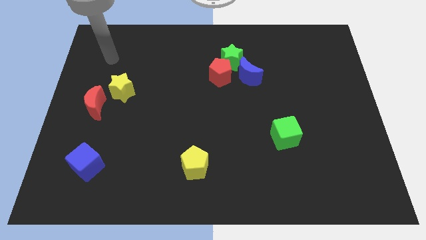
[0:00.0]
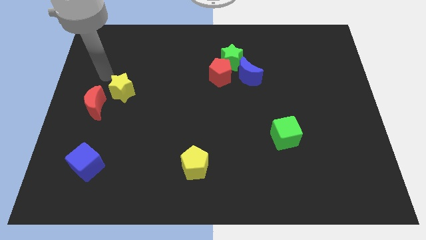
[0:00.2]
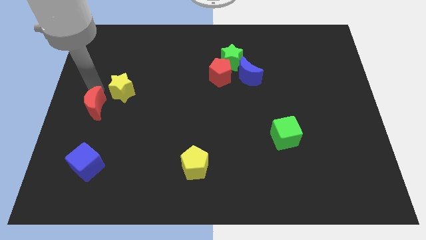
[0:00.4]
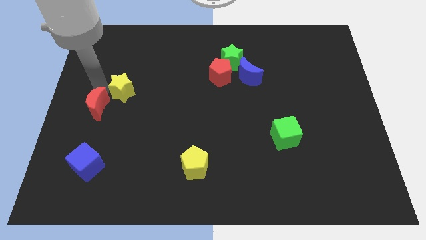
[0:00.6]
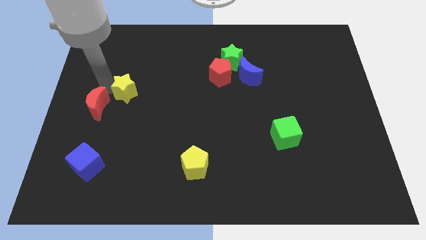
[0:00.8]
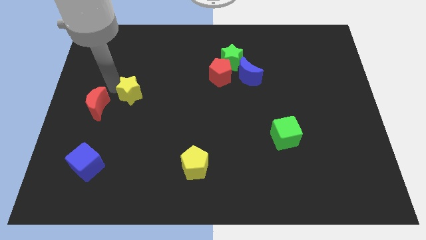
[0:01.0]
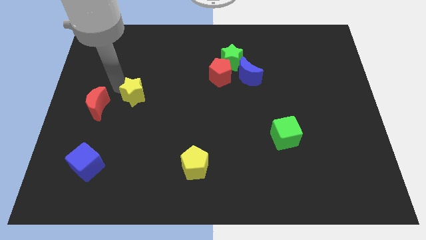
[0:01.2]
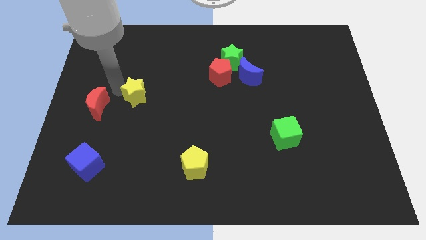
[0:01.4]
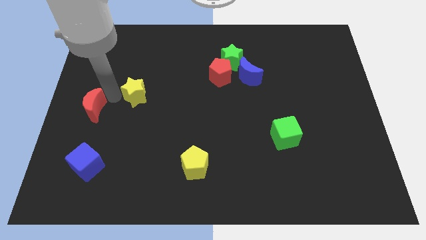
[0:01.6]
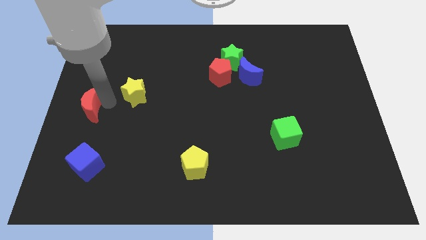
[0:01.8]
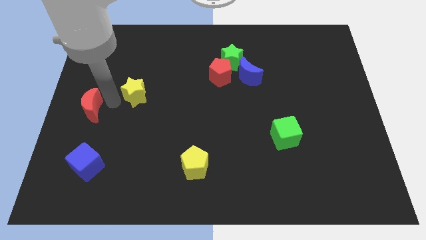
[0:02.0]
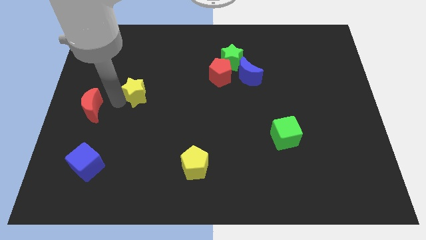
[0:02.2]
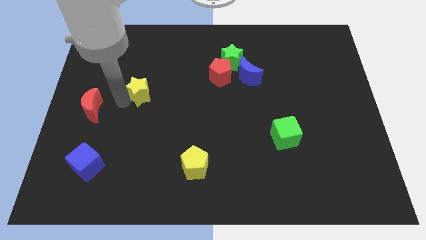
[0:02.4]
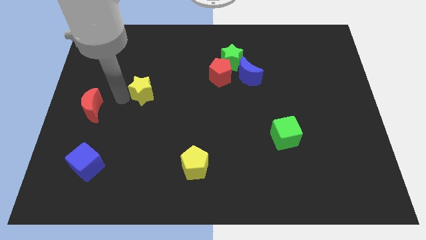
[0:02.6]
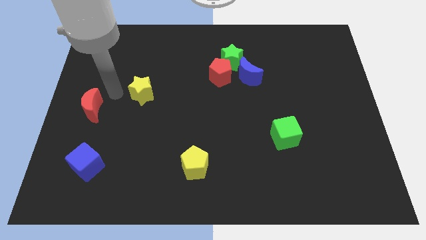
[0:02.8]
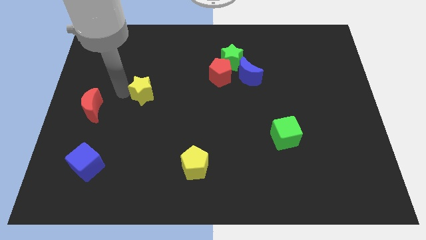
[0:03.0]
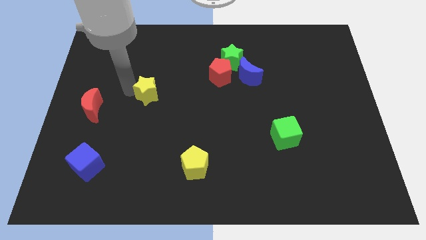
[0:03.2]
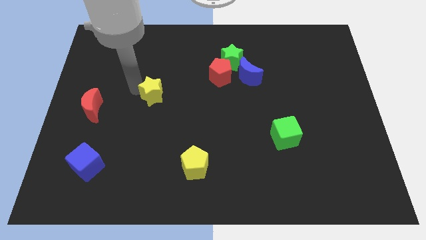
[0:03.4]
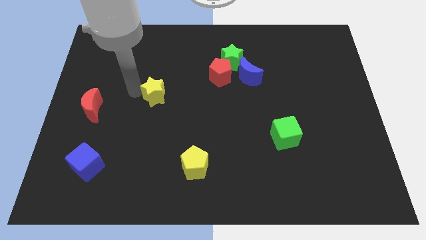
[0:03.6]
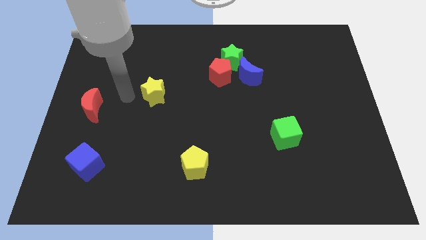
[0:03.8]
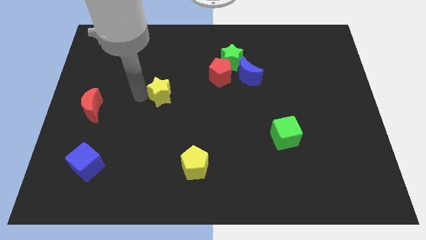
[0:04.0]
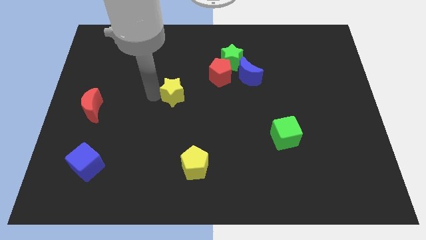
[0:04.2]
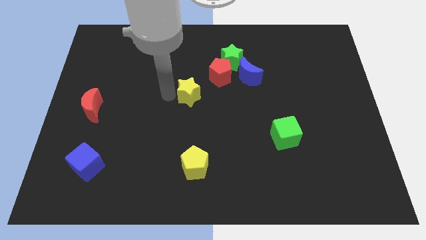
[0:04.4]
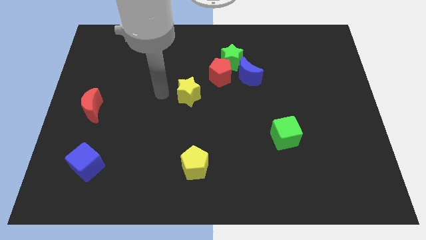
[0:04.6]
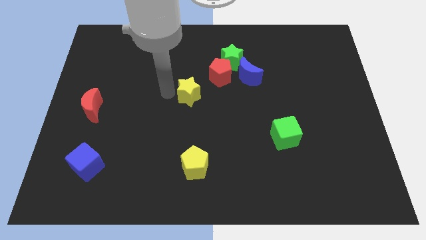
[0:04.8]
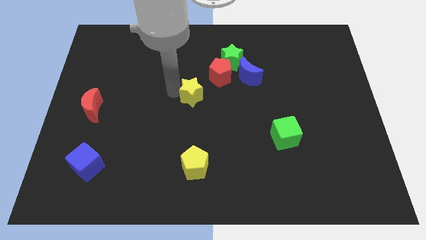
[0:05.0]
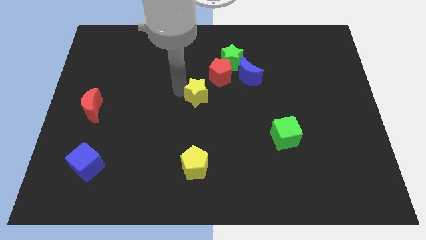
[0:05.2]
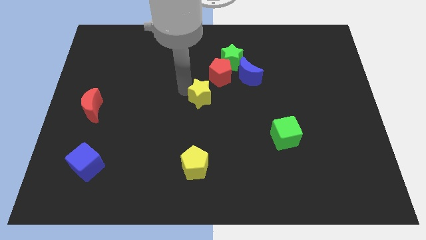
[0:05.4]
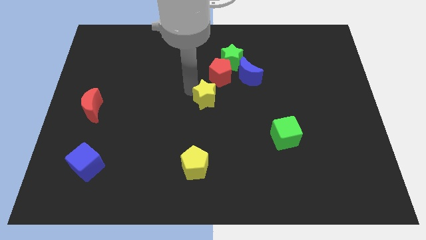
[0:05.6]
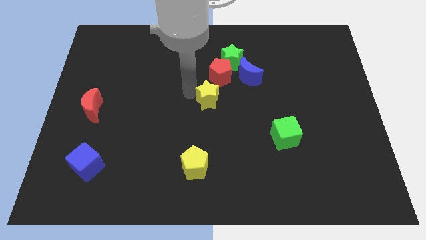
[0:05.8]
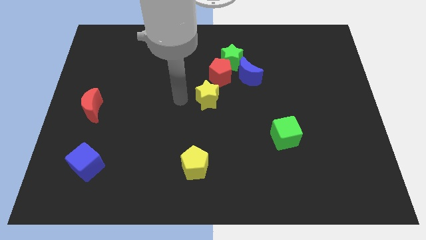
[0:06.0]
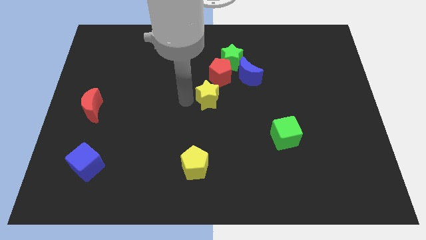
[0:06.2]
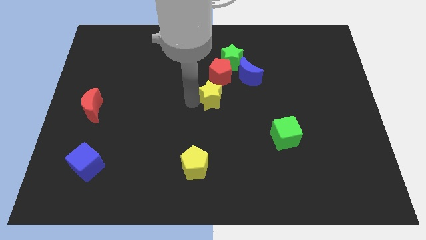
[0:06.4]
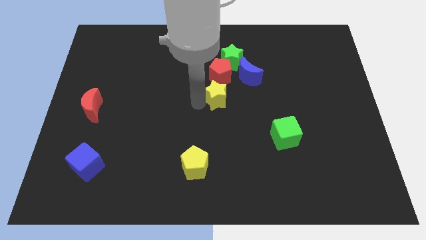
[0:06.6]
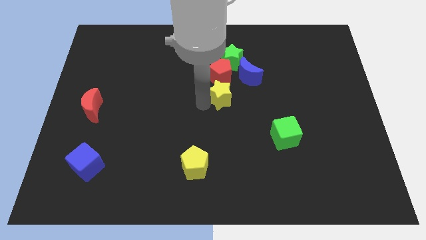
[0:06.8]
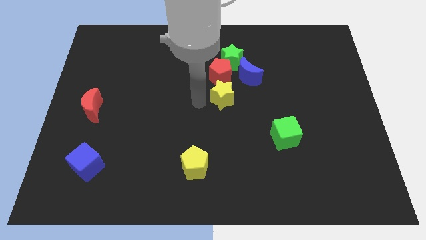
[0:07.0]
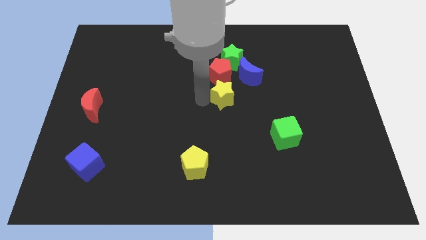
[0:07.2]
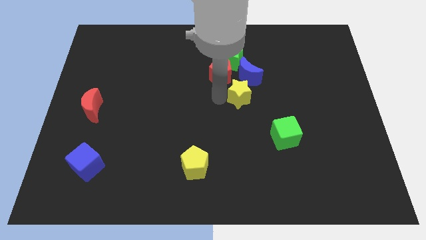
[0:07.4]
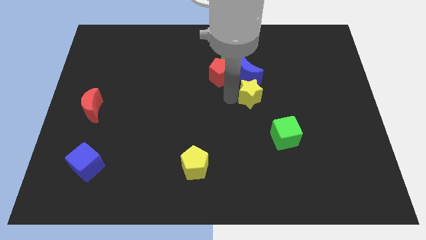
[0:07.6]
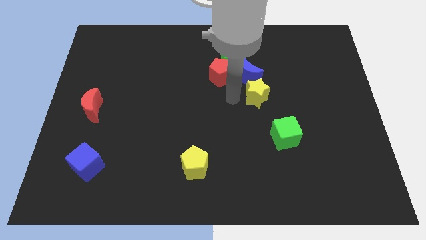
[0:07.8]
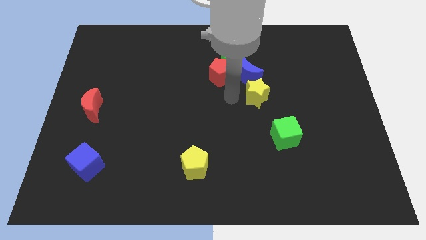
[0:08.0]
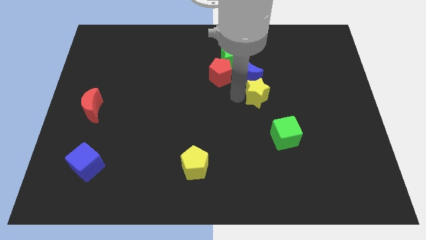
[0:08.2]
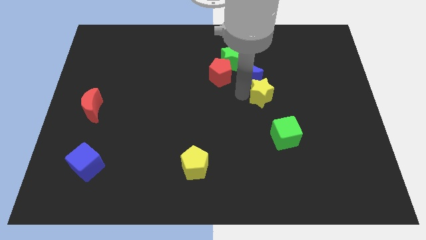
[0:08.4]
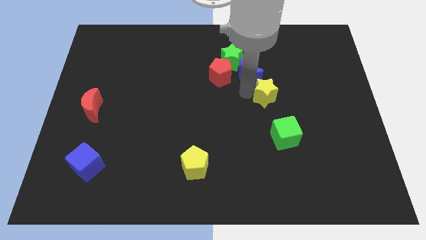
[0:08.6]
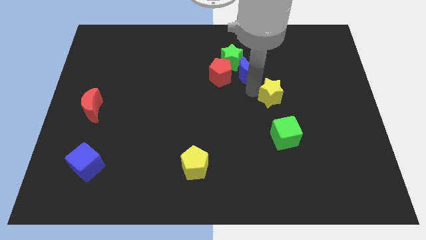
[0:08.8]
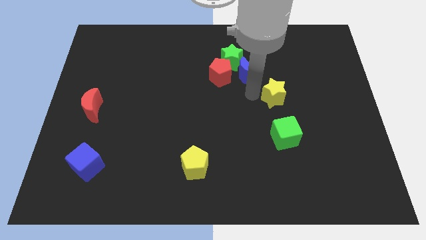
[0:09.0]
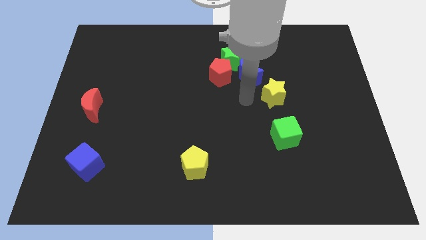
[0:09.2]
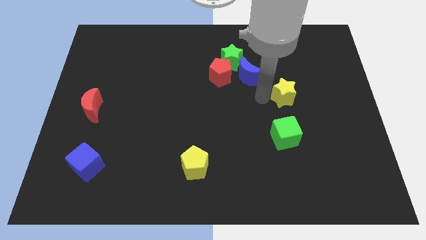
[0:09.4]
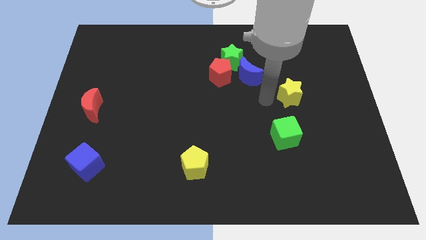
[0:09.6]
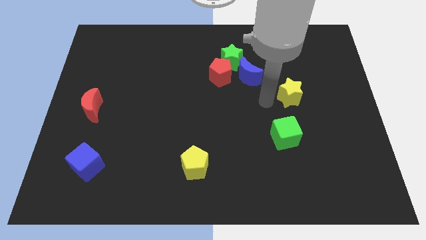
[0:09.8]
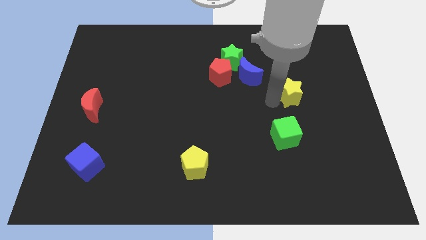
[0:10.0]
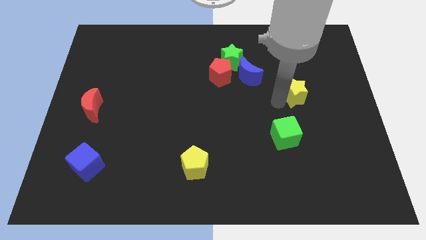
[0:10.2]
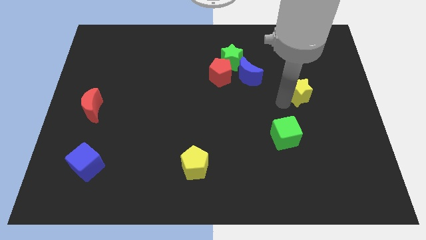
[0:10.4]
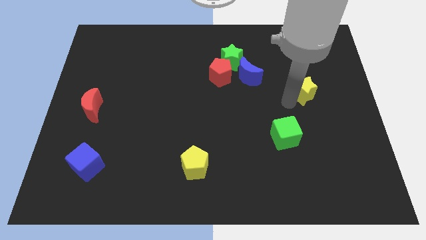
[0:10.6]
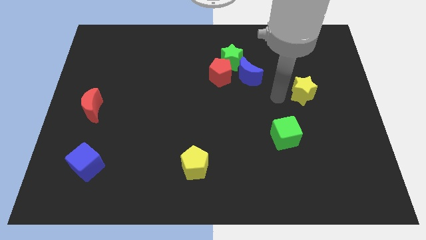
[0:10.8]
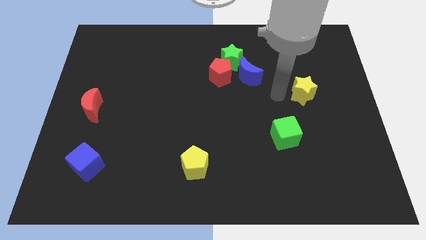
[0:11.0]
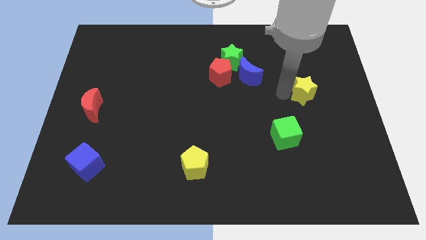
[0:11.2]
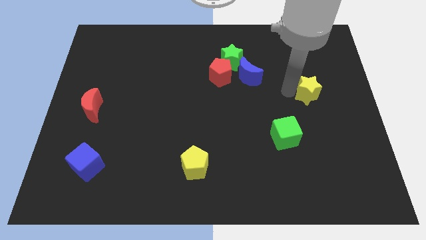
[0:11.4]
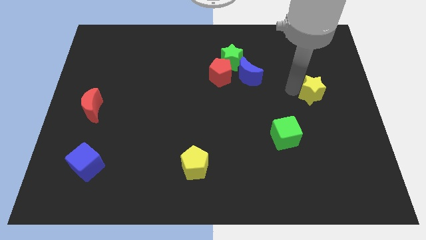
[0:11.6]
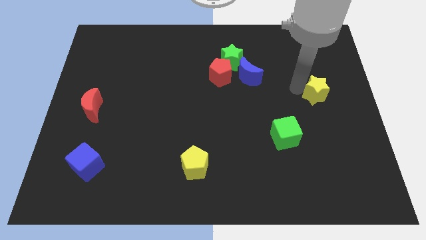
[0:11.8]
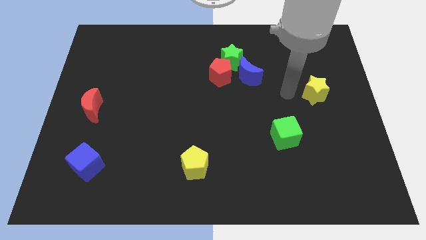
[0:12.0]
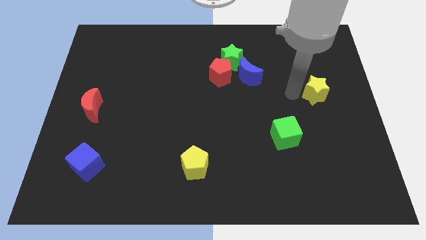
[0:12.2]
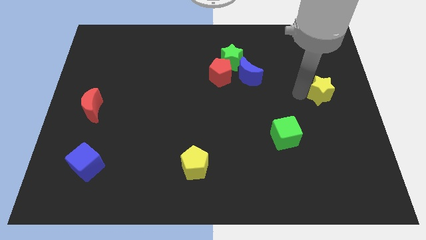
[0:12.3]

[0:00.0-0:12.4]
slide the yellow star to the right side of the board

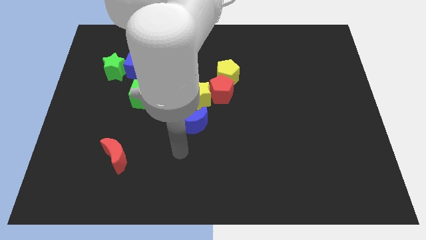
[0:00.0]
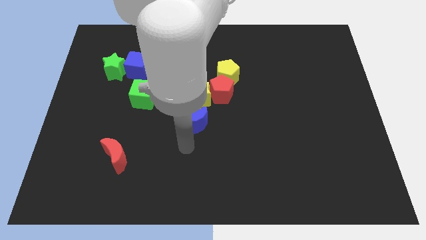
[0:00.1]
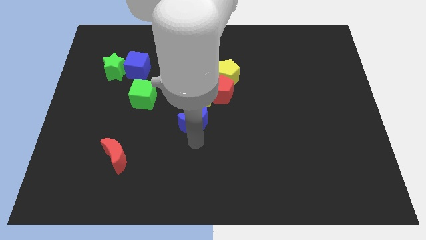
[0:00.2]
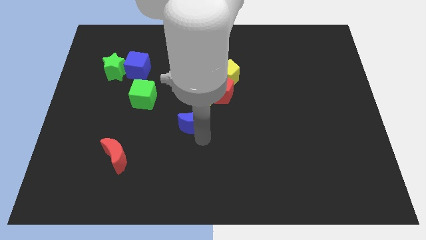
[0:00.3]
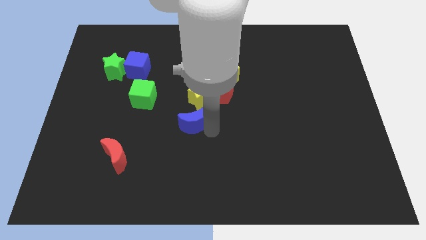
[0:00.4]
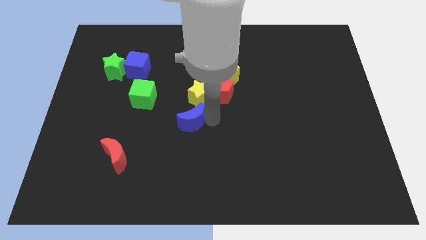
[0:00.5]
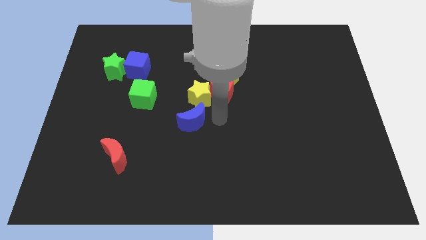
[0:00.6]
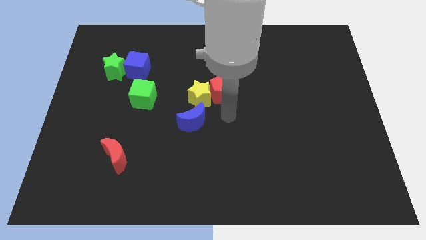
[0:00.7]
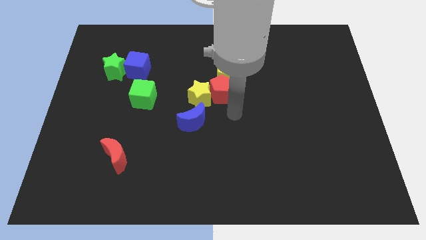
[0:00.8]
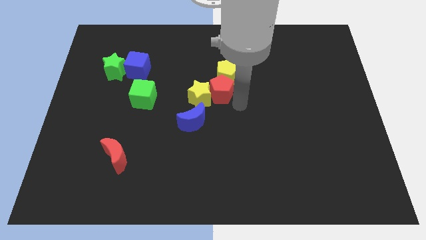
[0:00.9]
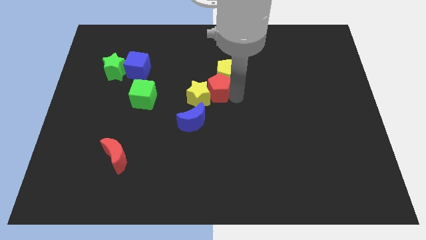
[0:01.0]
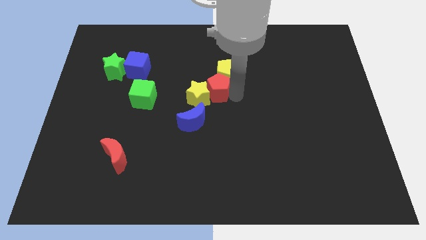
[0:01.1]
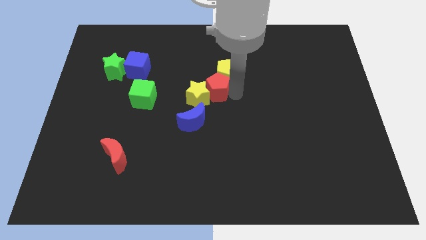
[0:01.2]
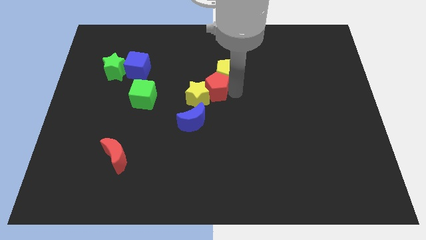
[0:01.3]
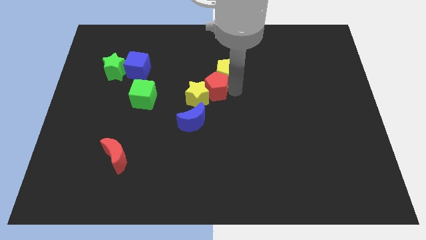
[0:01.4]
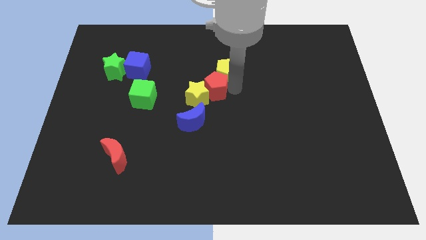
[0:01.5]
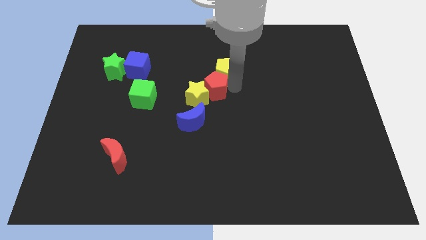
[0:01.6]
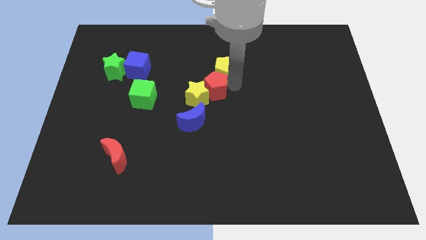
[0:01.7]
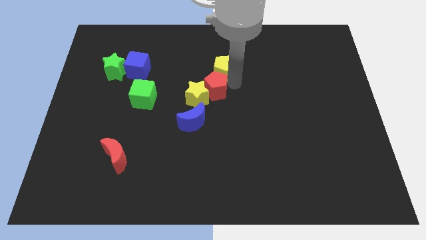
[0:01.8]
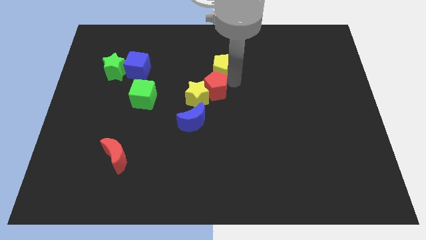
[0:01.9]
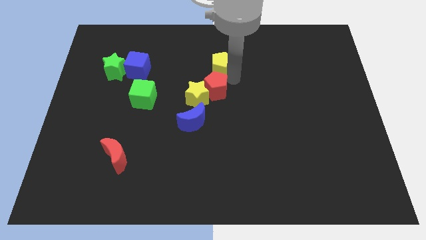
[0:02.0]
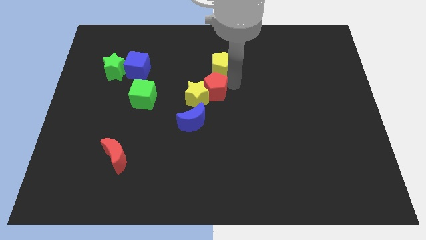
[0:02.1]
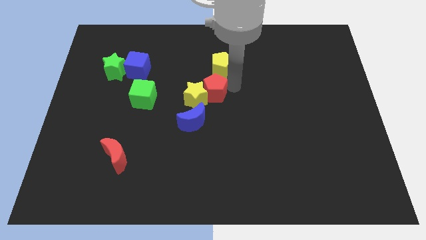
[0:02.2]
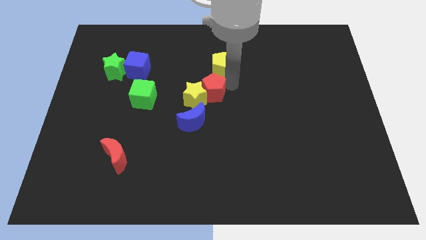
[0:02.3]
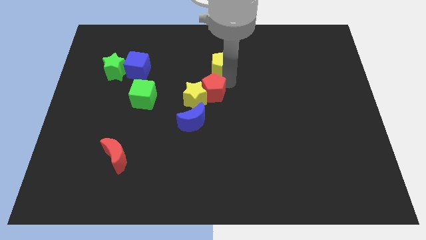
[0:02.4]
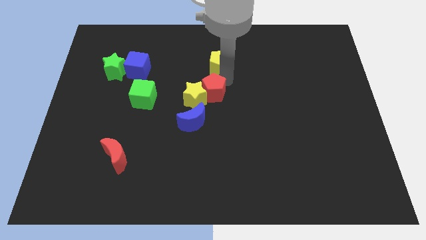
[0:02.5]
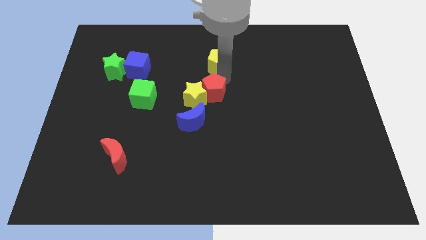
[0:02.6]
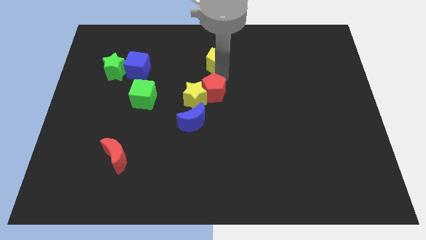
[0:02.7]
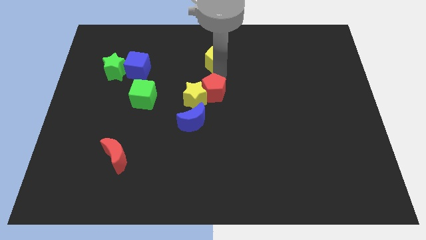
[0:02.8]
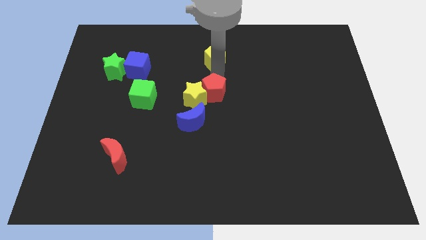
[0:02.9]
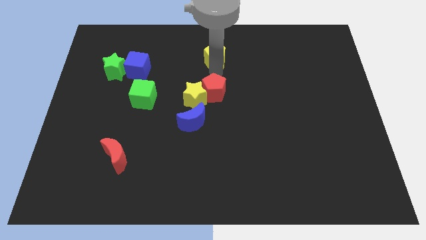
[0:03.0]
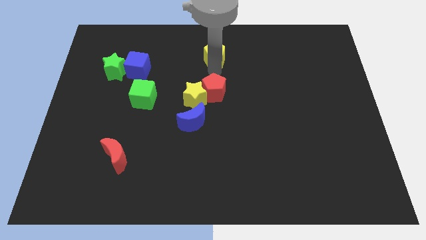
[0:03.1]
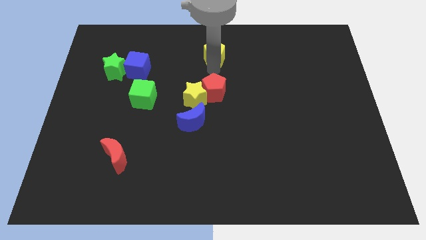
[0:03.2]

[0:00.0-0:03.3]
slide the yellow pentagon to the towards your base
